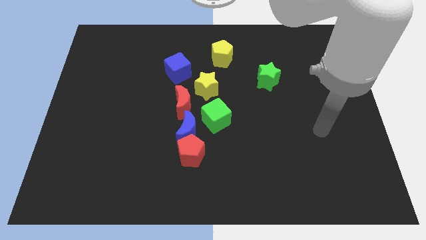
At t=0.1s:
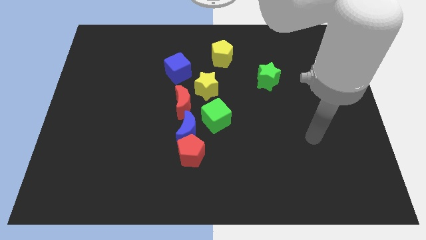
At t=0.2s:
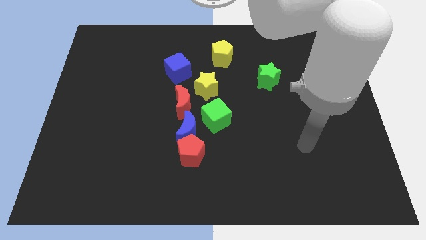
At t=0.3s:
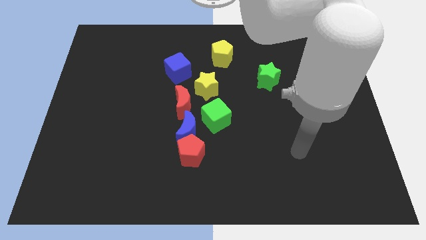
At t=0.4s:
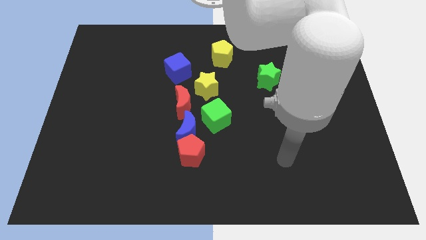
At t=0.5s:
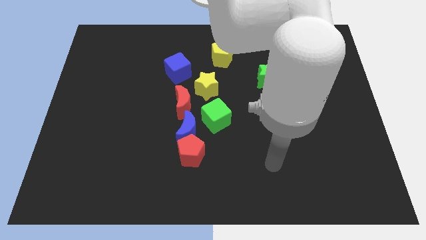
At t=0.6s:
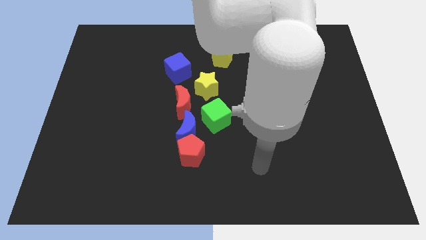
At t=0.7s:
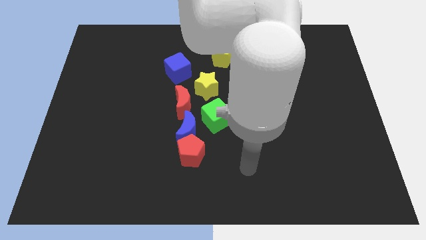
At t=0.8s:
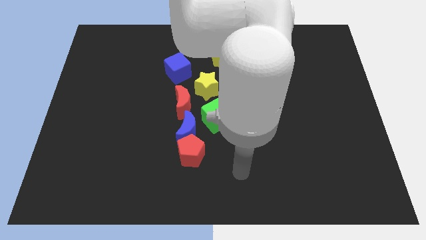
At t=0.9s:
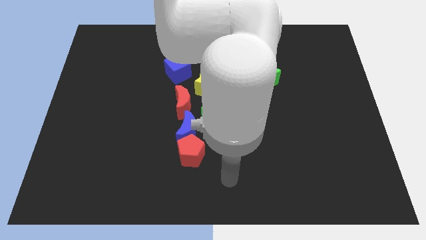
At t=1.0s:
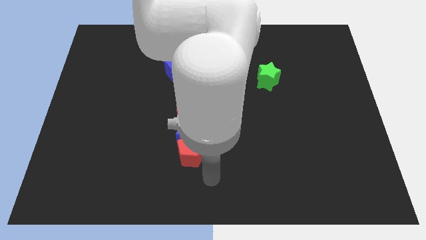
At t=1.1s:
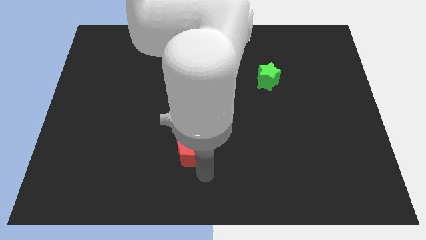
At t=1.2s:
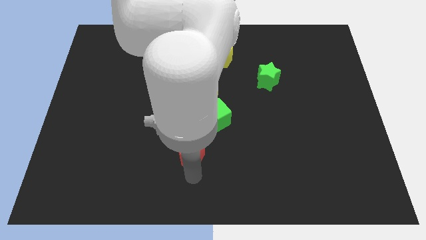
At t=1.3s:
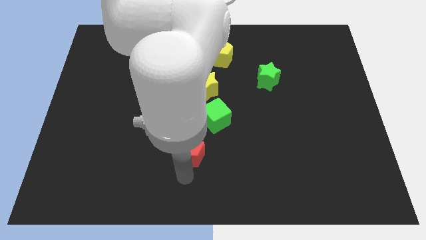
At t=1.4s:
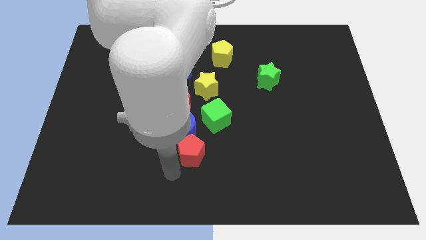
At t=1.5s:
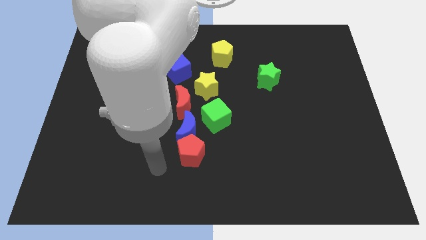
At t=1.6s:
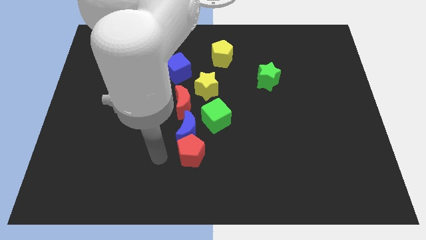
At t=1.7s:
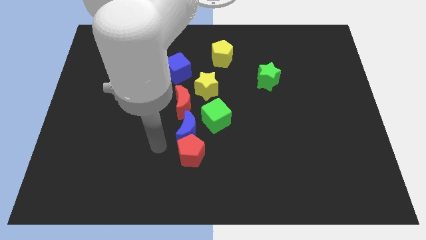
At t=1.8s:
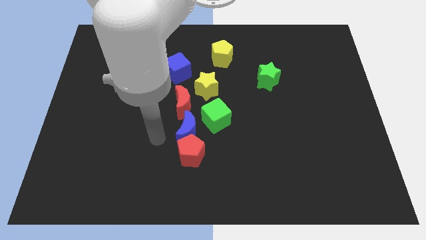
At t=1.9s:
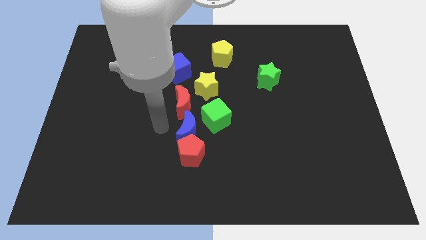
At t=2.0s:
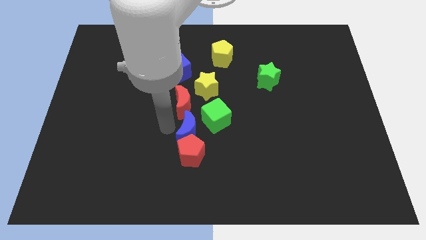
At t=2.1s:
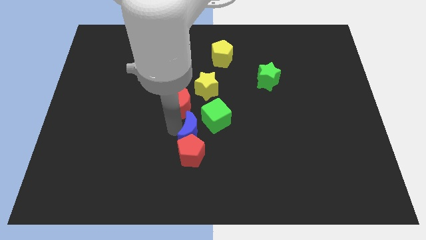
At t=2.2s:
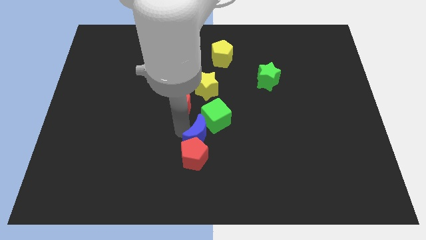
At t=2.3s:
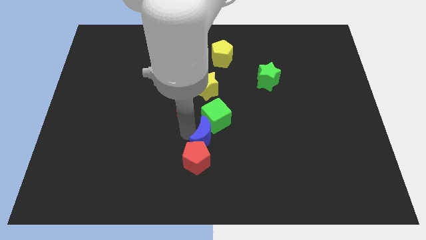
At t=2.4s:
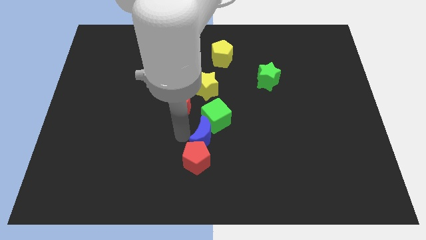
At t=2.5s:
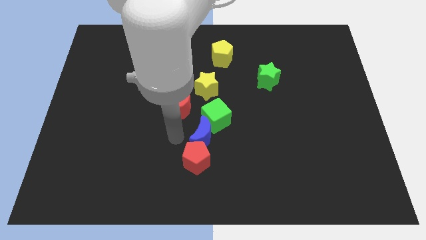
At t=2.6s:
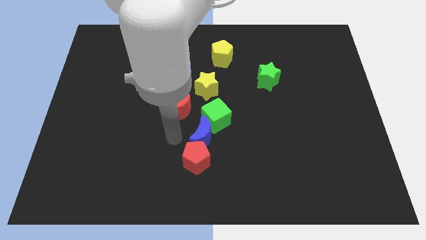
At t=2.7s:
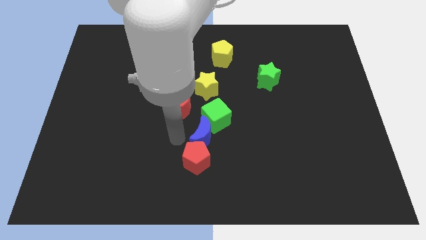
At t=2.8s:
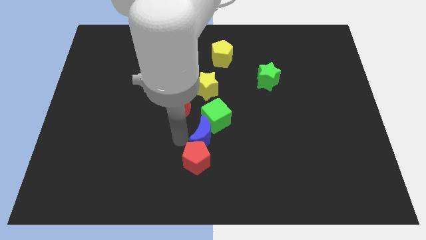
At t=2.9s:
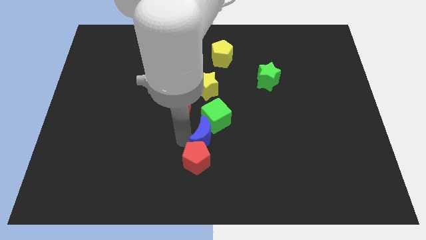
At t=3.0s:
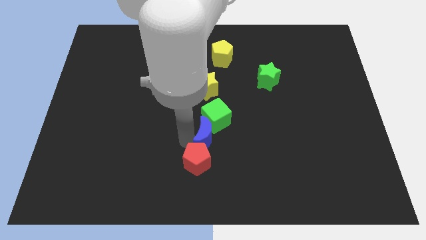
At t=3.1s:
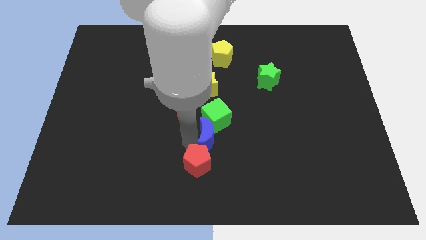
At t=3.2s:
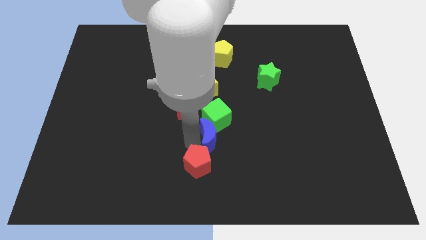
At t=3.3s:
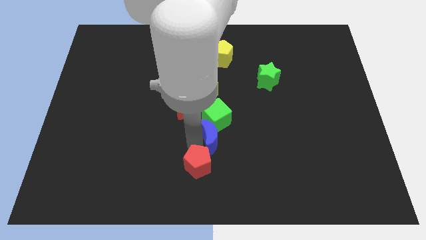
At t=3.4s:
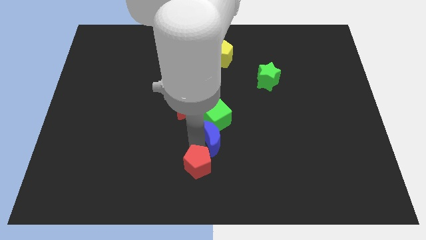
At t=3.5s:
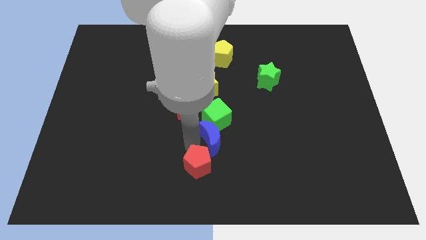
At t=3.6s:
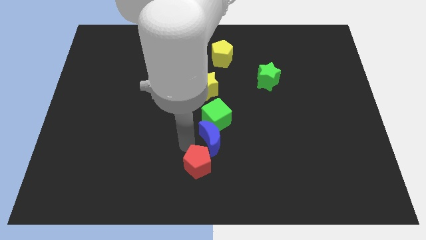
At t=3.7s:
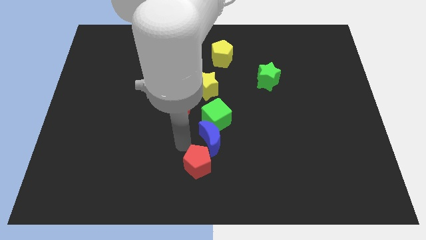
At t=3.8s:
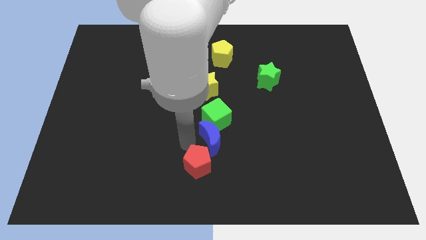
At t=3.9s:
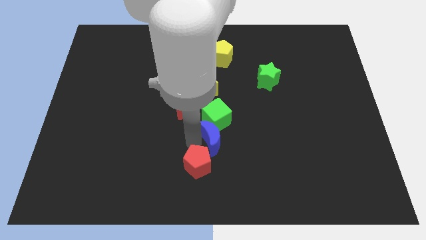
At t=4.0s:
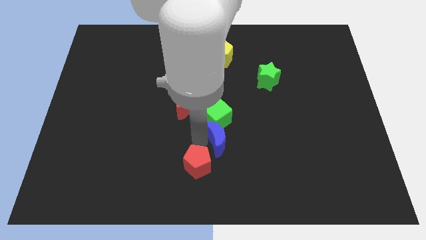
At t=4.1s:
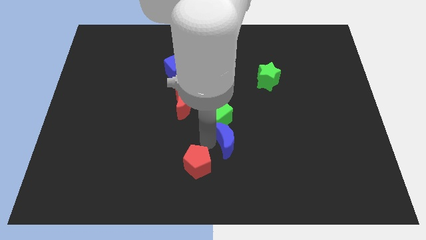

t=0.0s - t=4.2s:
slide the blue moon a little bit right

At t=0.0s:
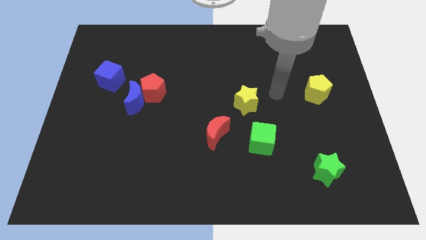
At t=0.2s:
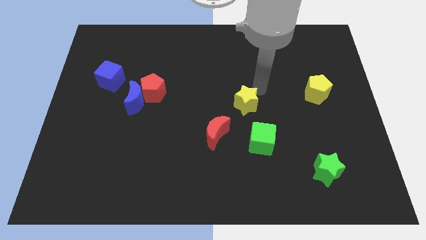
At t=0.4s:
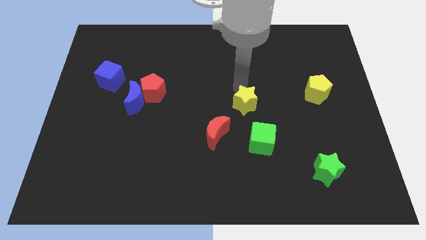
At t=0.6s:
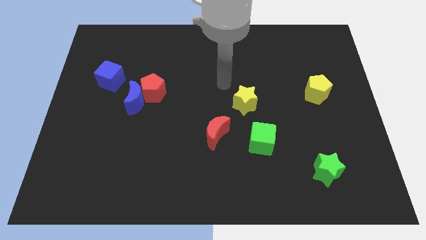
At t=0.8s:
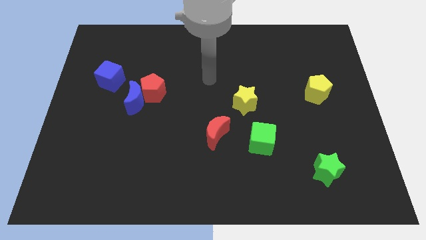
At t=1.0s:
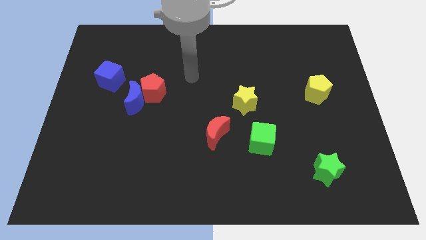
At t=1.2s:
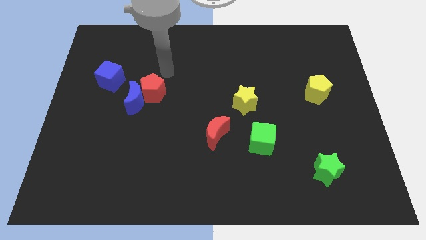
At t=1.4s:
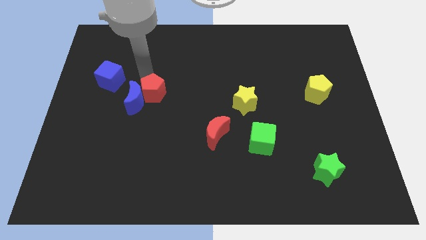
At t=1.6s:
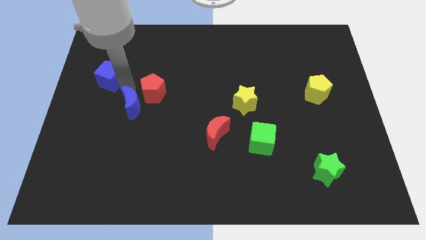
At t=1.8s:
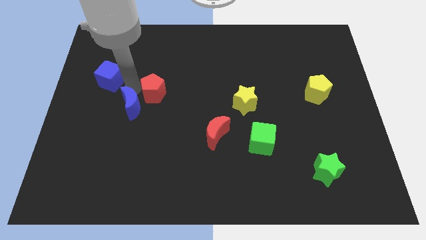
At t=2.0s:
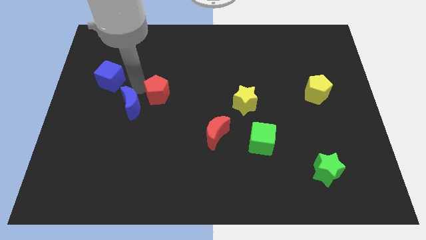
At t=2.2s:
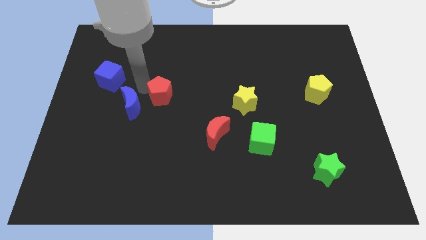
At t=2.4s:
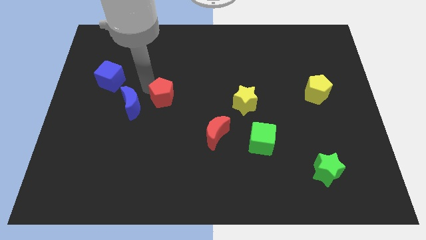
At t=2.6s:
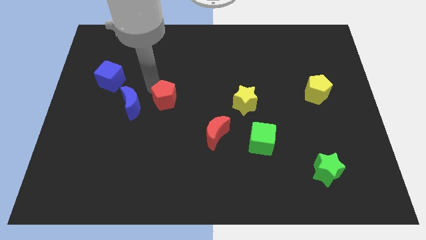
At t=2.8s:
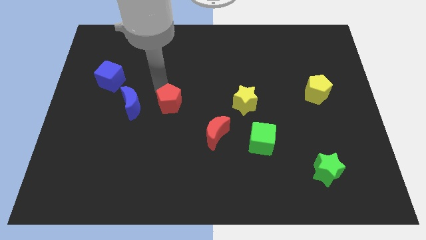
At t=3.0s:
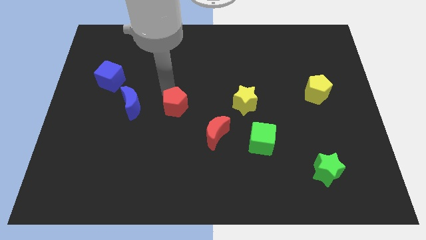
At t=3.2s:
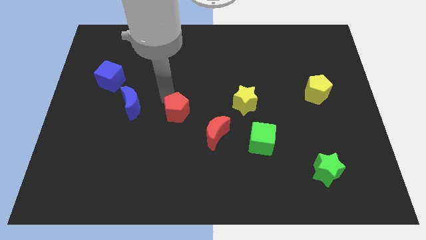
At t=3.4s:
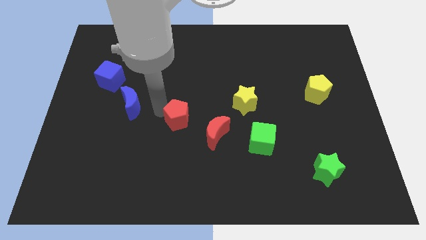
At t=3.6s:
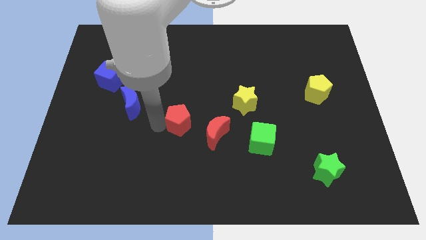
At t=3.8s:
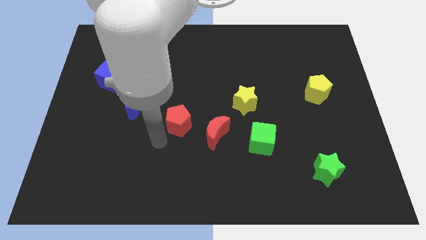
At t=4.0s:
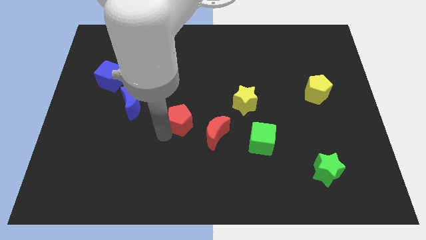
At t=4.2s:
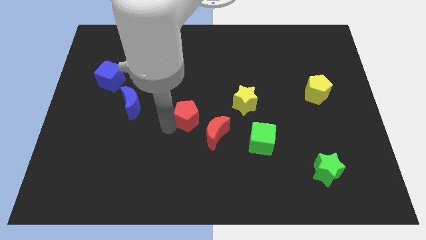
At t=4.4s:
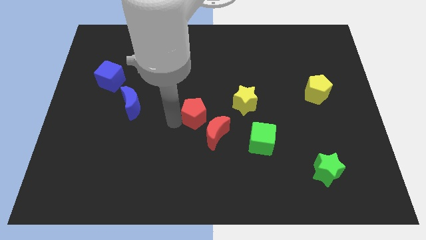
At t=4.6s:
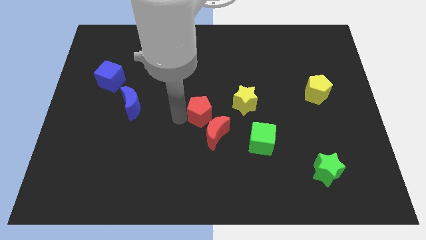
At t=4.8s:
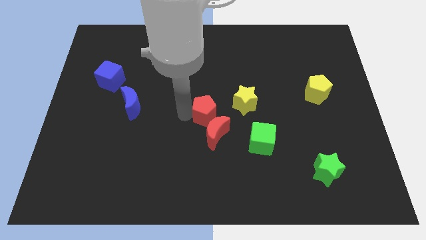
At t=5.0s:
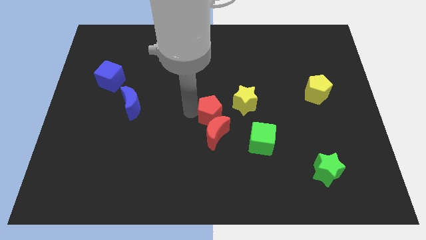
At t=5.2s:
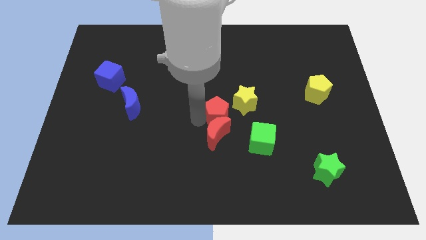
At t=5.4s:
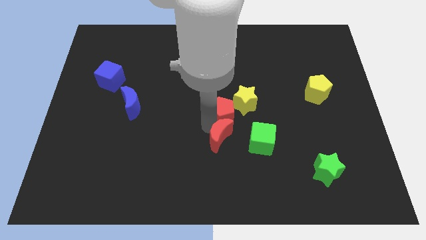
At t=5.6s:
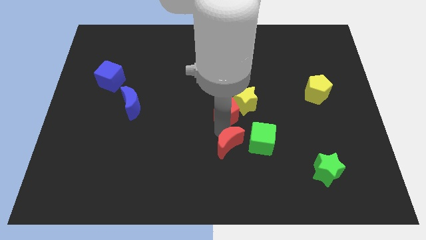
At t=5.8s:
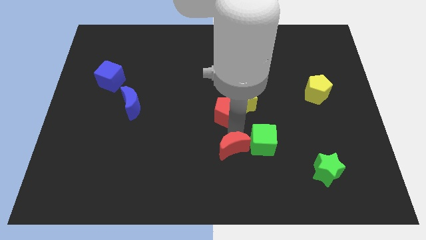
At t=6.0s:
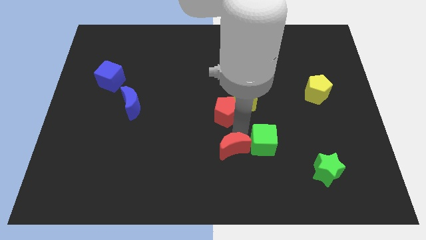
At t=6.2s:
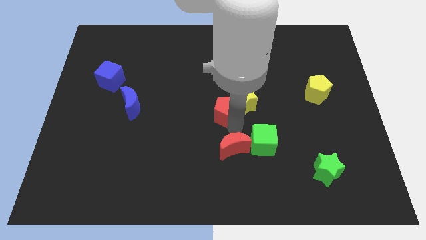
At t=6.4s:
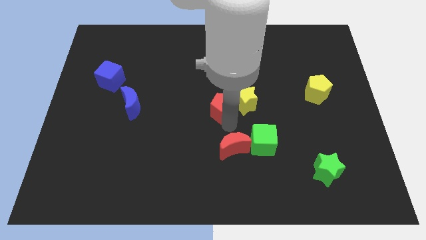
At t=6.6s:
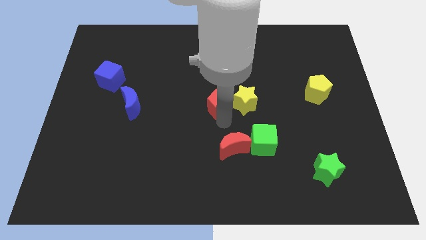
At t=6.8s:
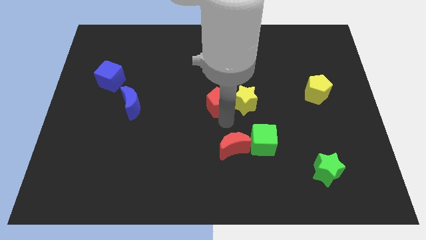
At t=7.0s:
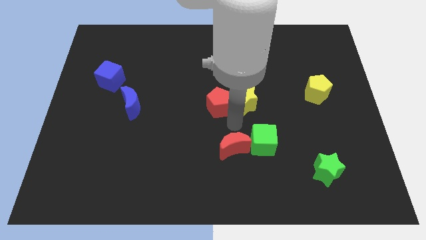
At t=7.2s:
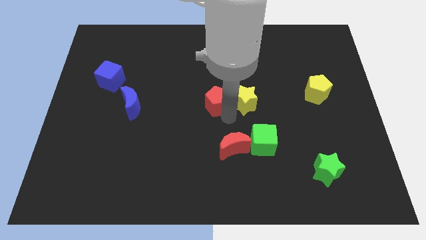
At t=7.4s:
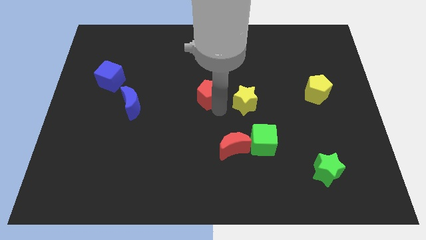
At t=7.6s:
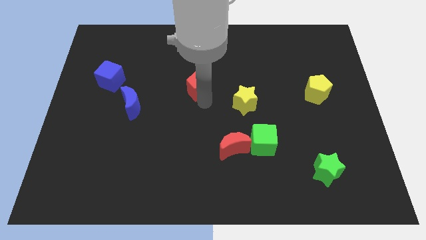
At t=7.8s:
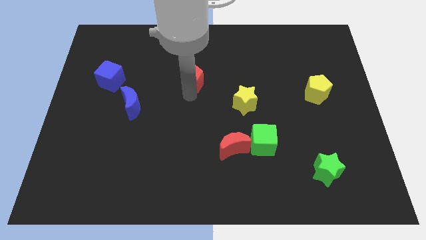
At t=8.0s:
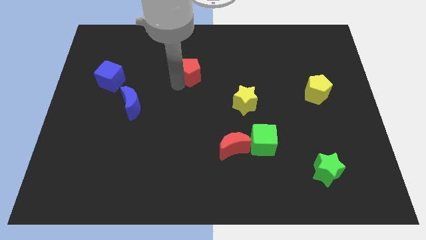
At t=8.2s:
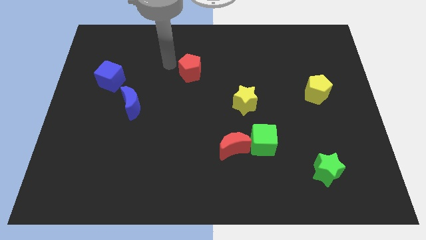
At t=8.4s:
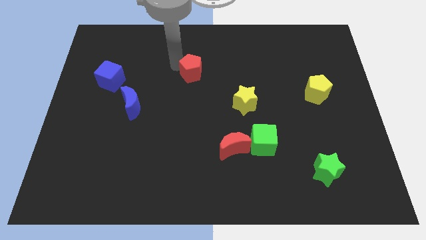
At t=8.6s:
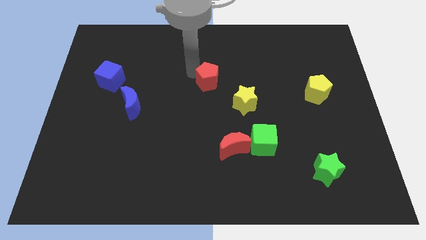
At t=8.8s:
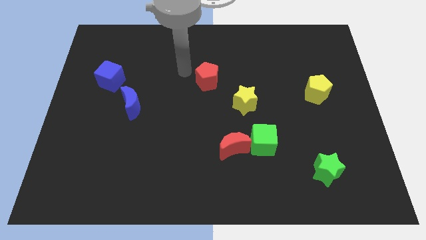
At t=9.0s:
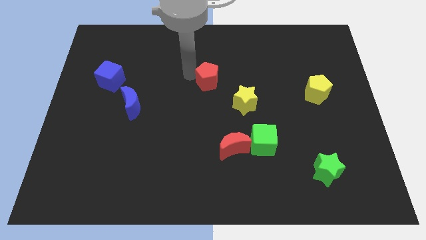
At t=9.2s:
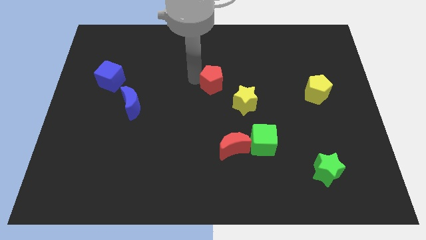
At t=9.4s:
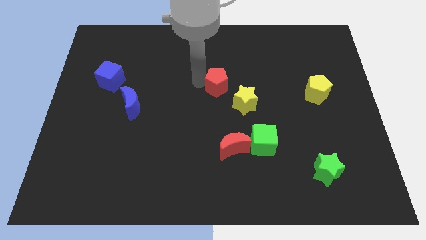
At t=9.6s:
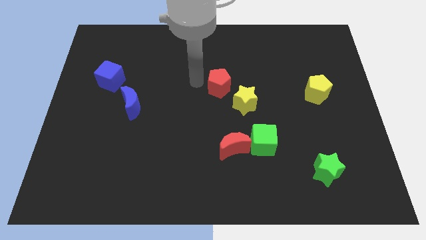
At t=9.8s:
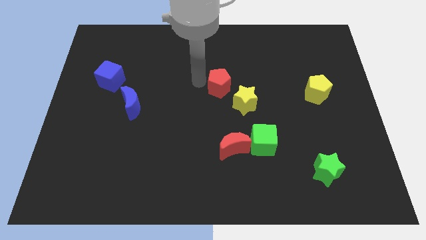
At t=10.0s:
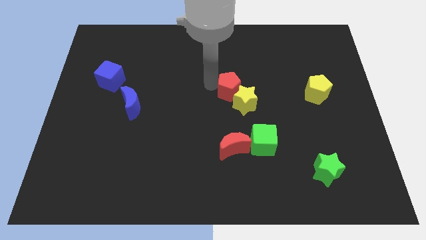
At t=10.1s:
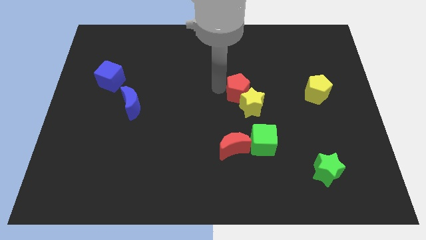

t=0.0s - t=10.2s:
push the red pentagon to the right
